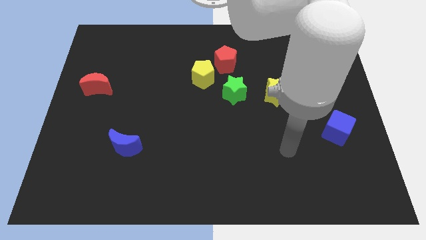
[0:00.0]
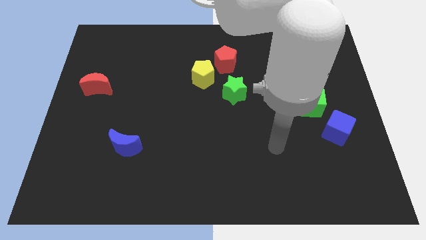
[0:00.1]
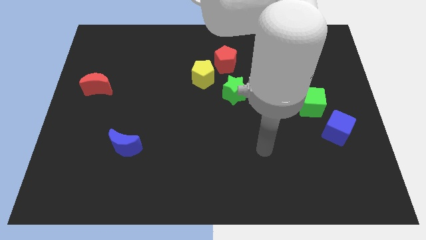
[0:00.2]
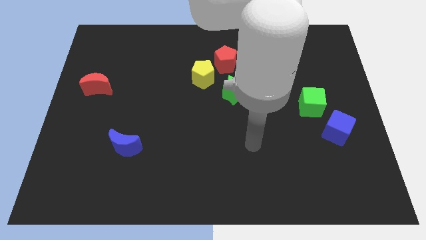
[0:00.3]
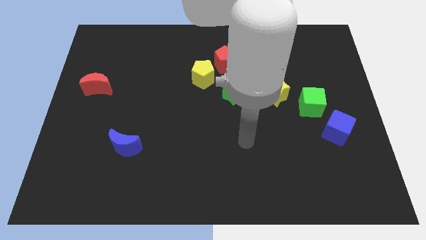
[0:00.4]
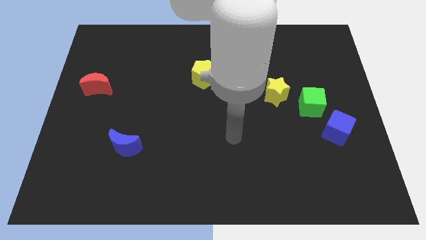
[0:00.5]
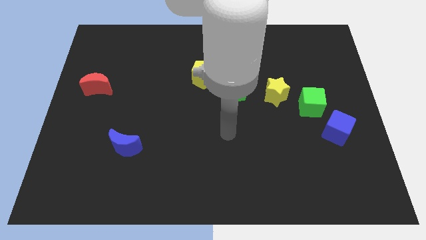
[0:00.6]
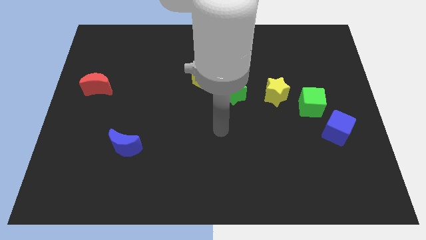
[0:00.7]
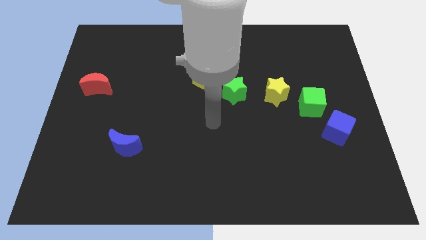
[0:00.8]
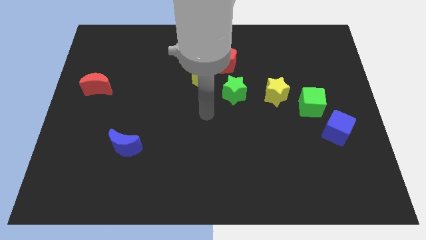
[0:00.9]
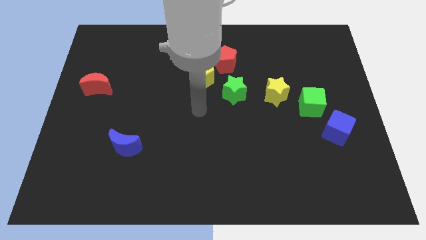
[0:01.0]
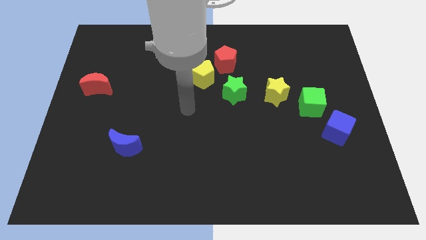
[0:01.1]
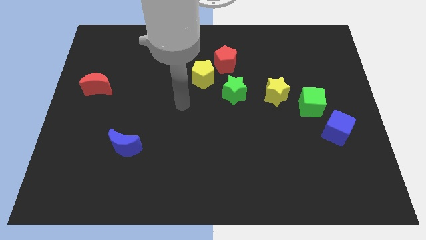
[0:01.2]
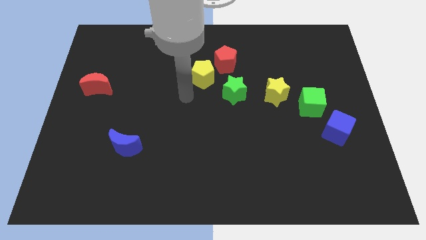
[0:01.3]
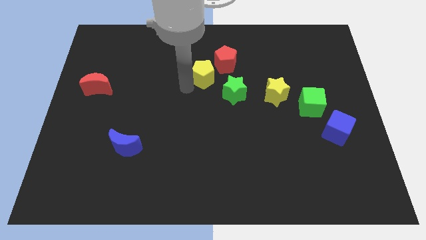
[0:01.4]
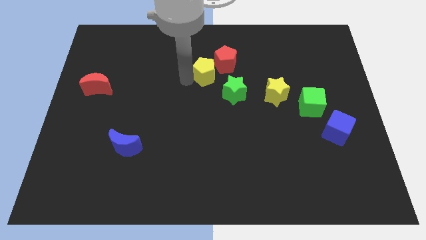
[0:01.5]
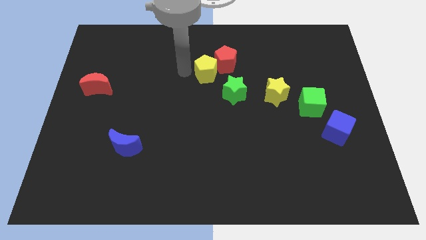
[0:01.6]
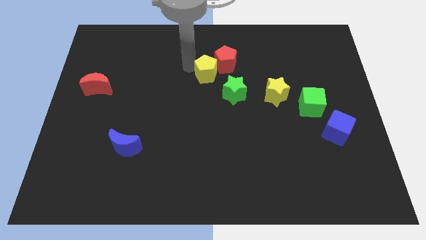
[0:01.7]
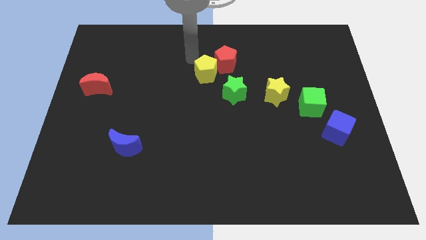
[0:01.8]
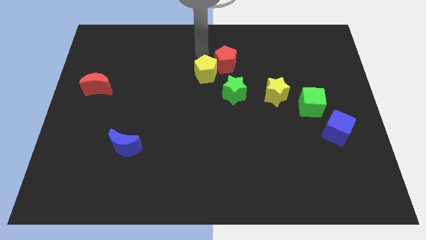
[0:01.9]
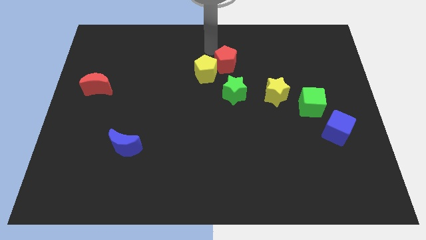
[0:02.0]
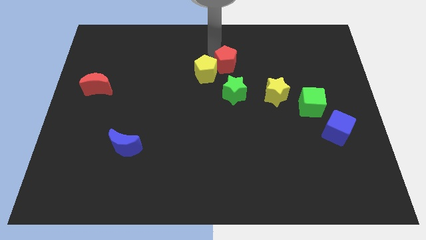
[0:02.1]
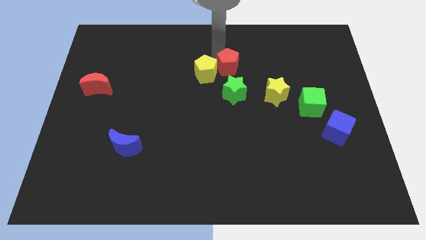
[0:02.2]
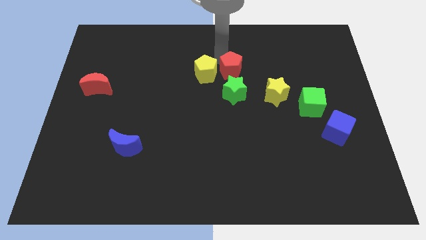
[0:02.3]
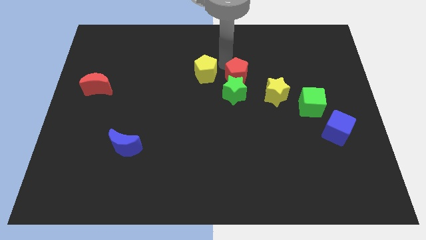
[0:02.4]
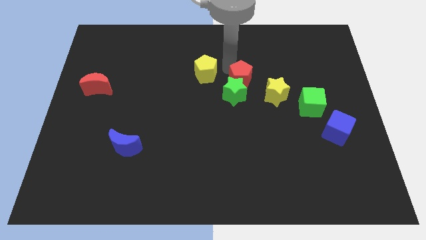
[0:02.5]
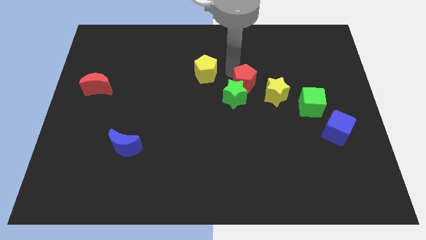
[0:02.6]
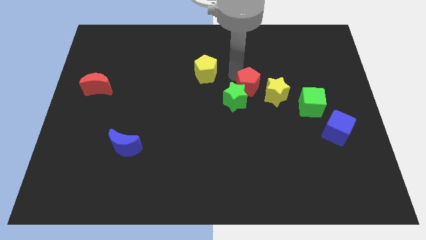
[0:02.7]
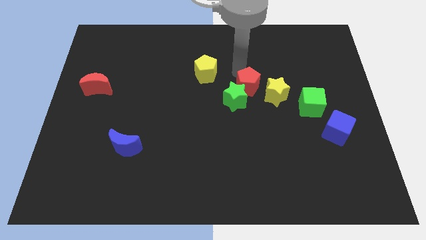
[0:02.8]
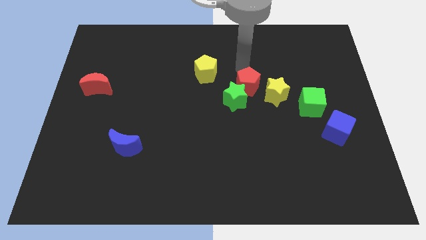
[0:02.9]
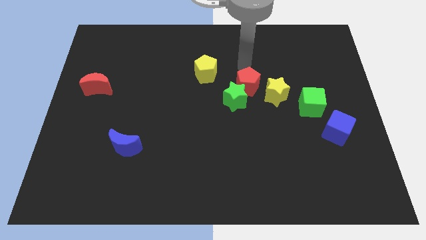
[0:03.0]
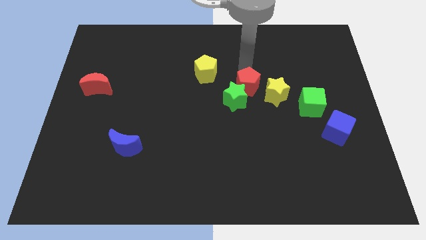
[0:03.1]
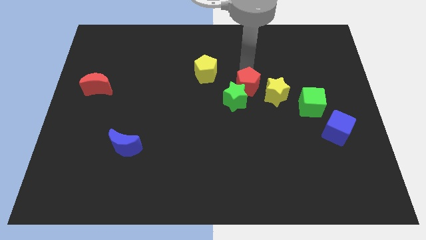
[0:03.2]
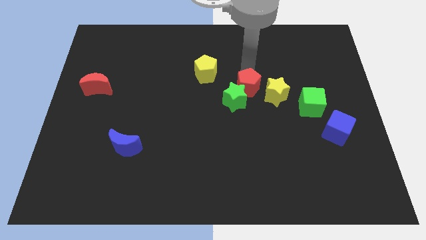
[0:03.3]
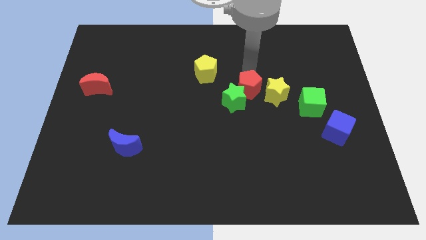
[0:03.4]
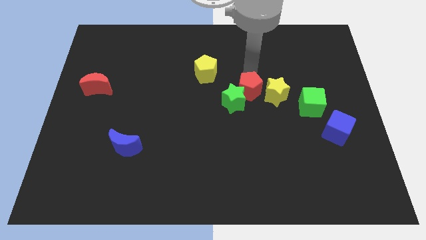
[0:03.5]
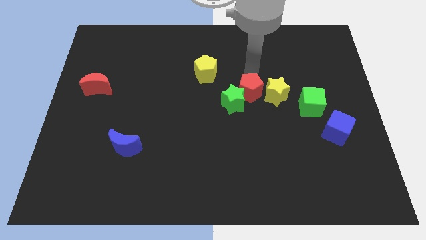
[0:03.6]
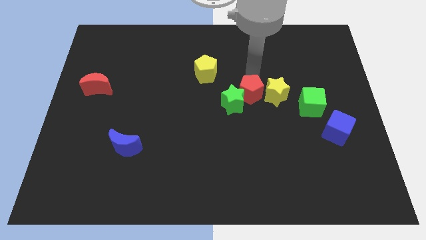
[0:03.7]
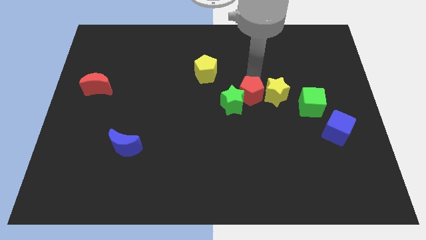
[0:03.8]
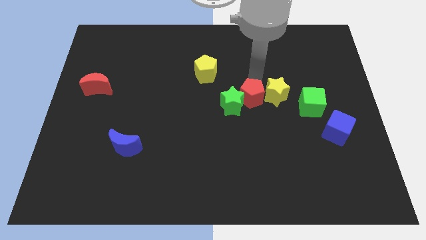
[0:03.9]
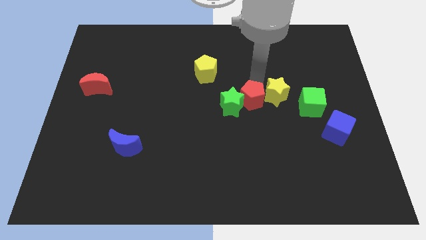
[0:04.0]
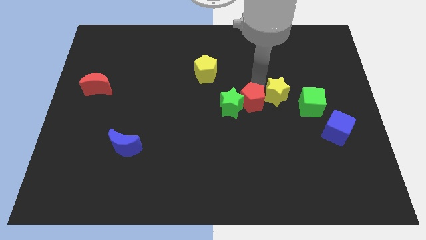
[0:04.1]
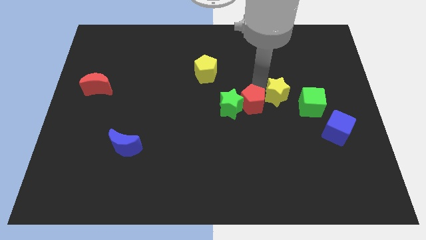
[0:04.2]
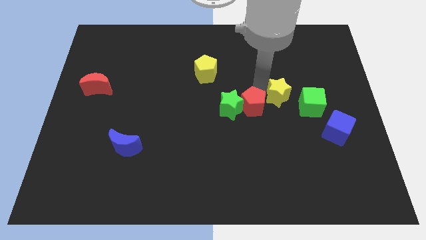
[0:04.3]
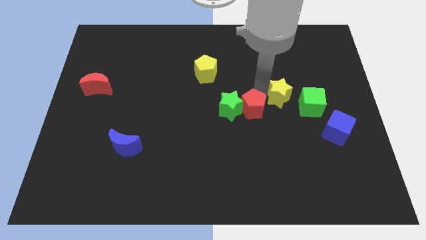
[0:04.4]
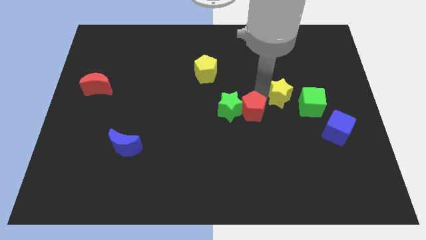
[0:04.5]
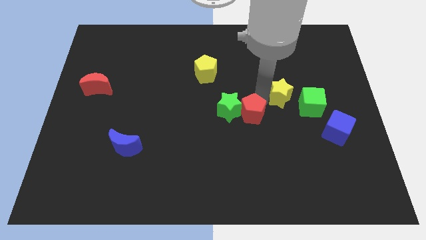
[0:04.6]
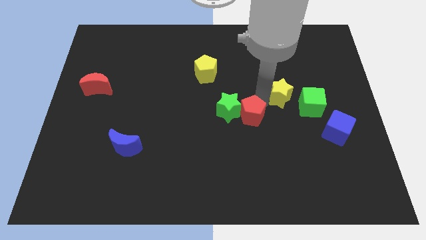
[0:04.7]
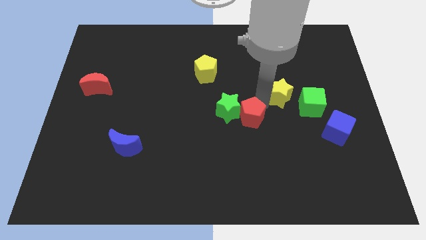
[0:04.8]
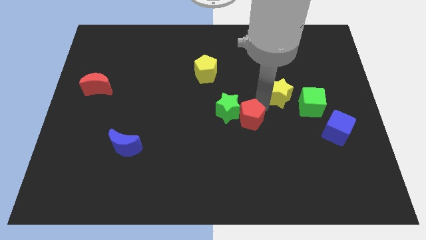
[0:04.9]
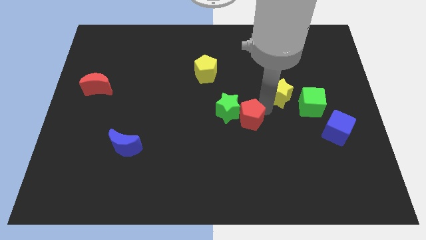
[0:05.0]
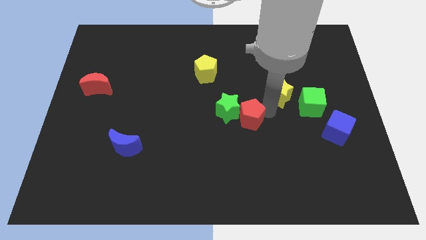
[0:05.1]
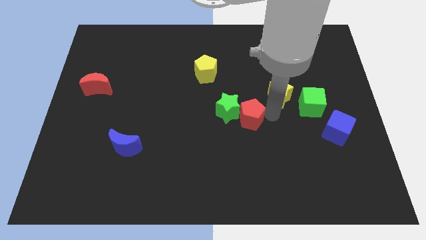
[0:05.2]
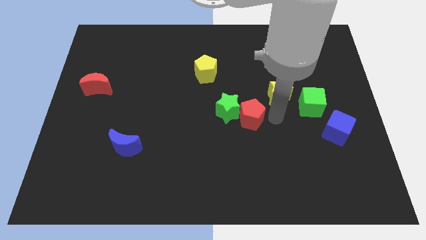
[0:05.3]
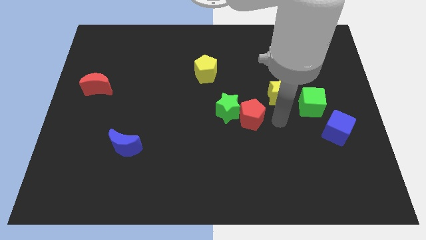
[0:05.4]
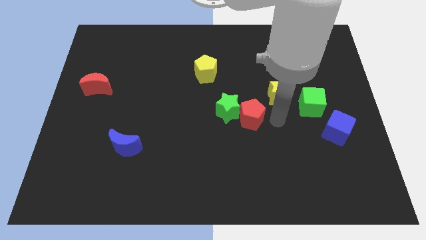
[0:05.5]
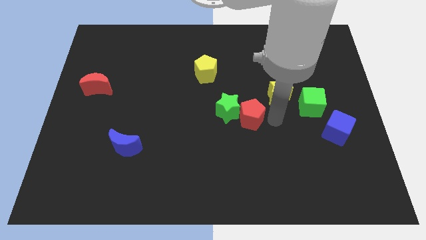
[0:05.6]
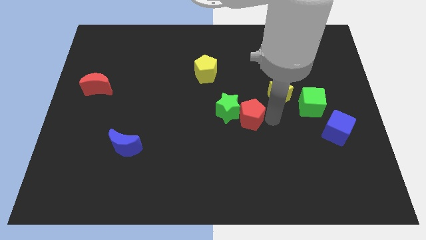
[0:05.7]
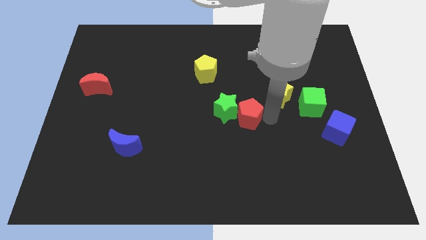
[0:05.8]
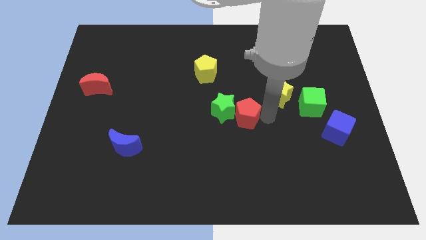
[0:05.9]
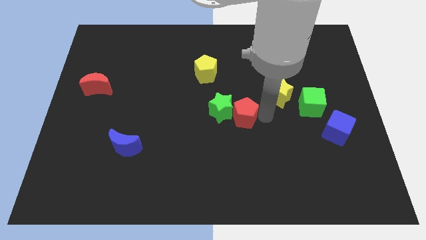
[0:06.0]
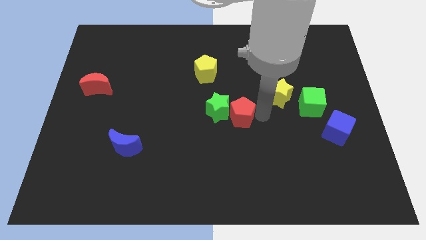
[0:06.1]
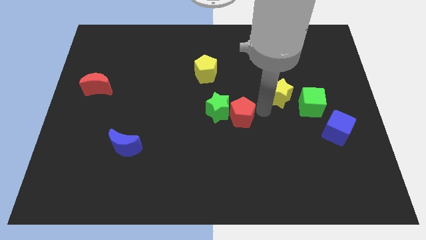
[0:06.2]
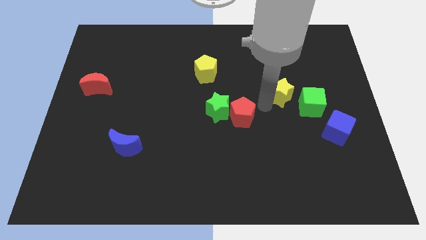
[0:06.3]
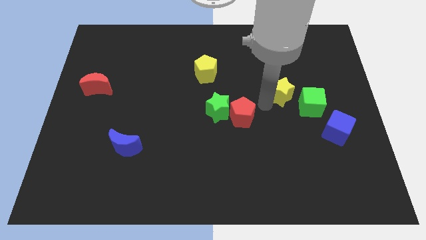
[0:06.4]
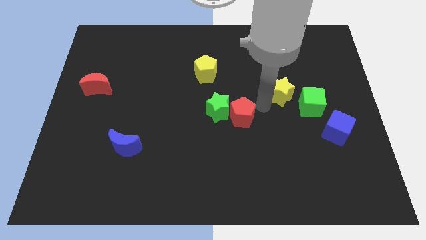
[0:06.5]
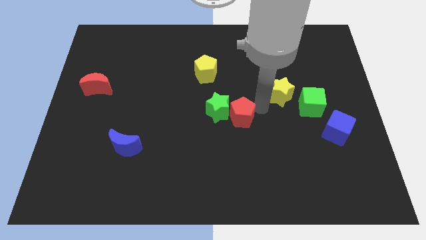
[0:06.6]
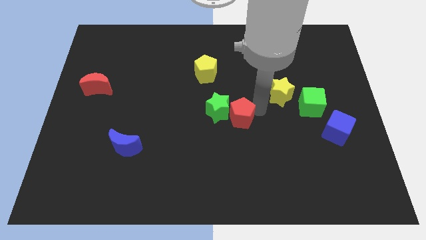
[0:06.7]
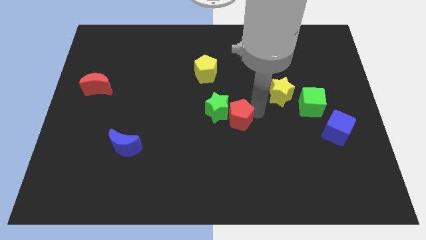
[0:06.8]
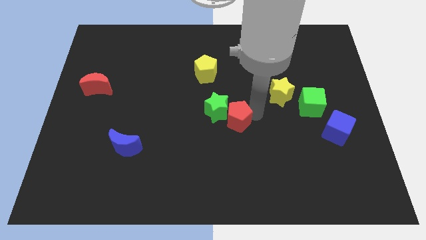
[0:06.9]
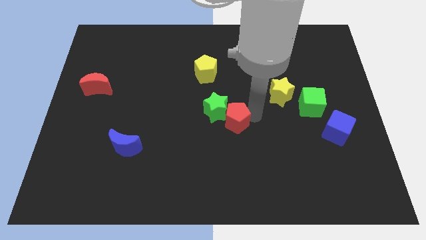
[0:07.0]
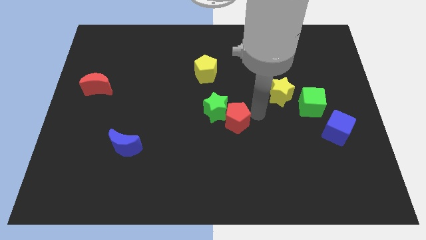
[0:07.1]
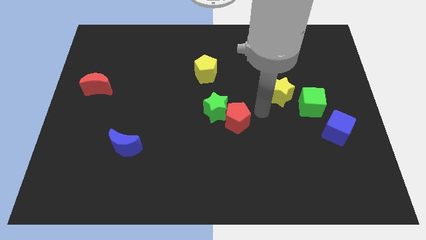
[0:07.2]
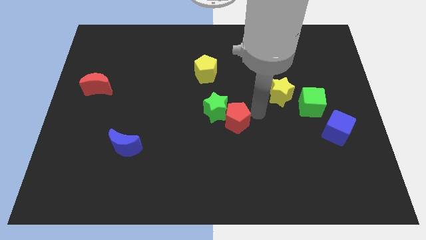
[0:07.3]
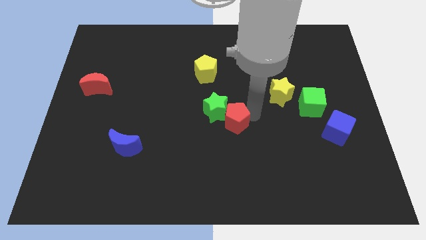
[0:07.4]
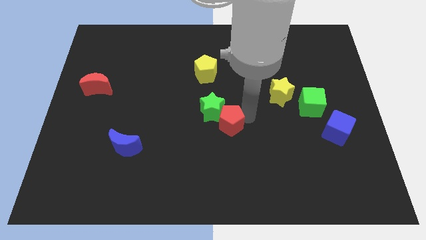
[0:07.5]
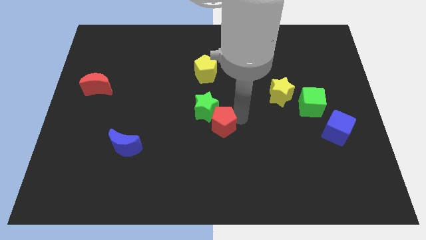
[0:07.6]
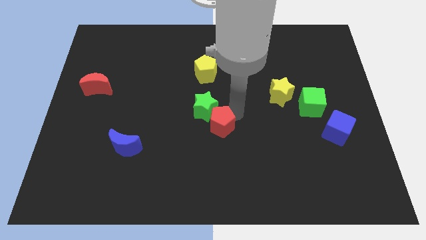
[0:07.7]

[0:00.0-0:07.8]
move the red pentagon downwards
